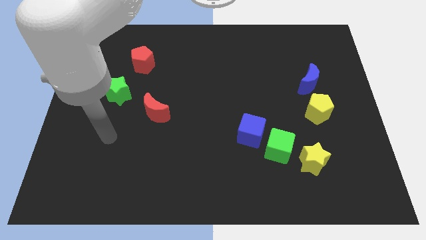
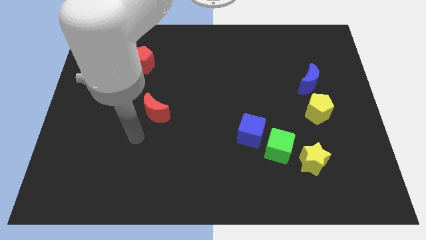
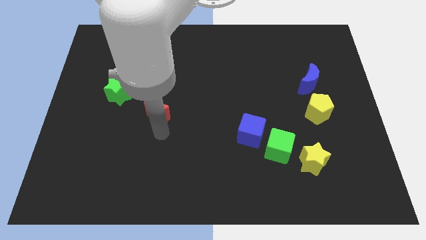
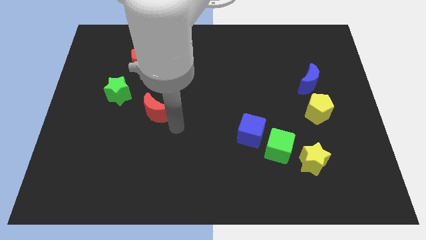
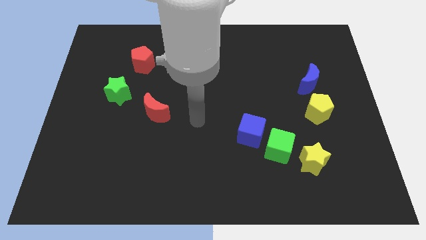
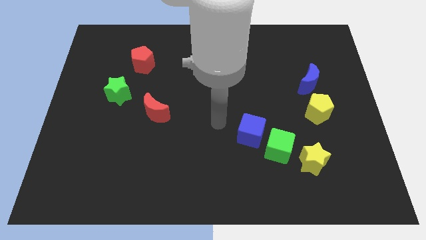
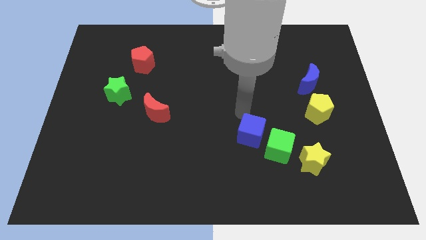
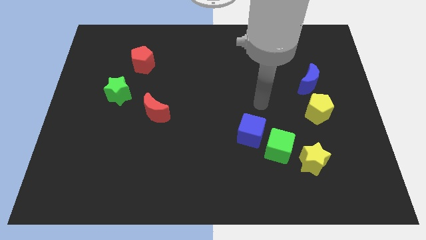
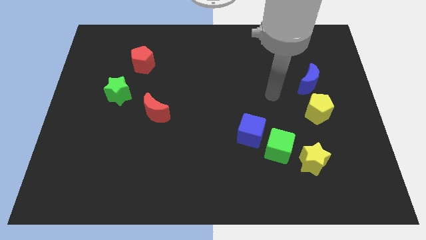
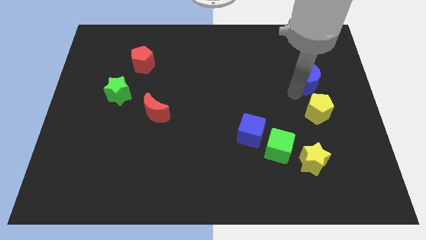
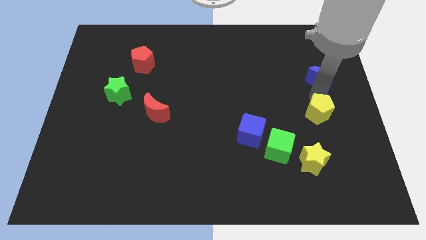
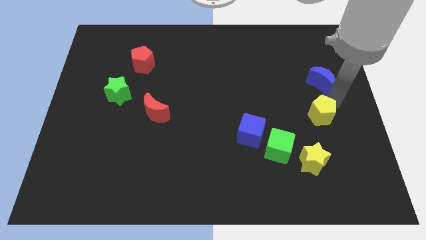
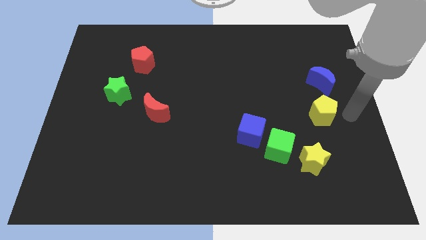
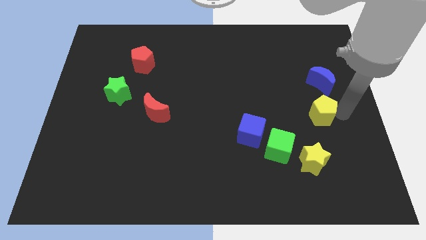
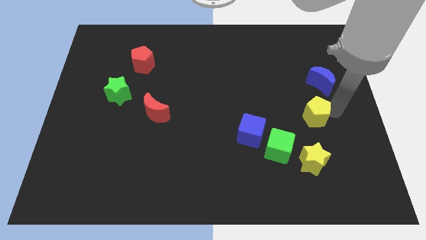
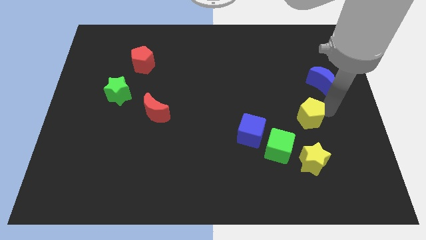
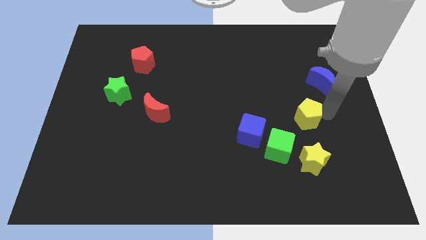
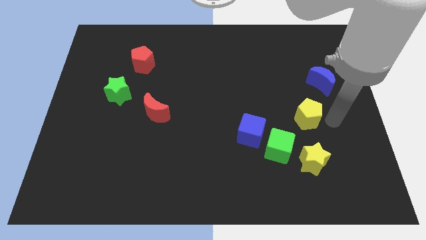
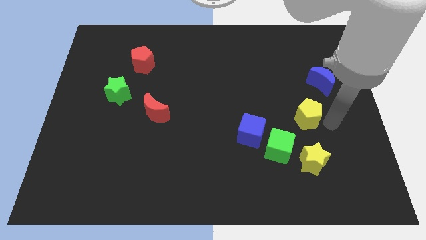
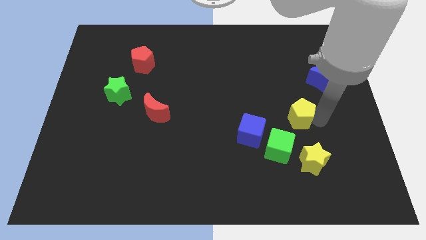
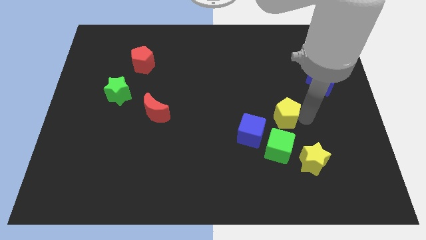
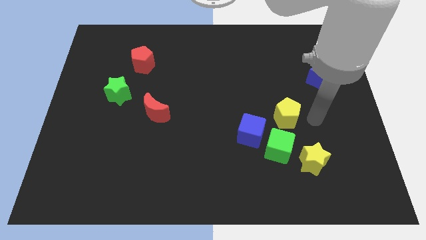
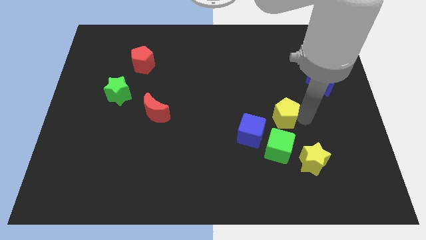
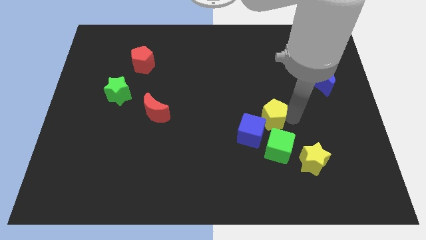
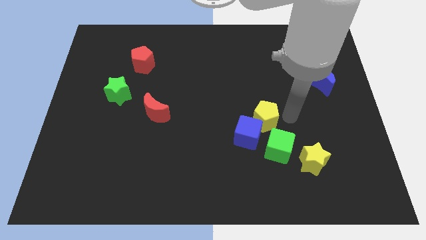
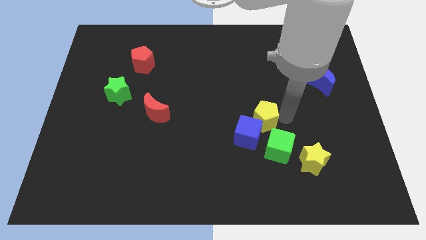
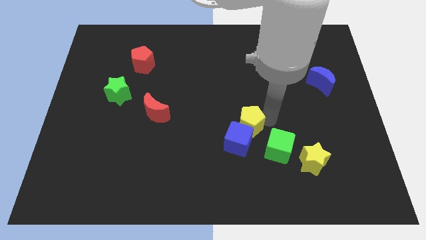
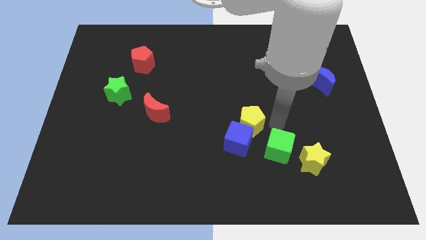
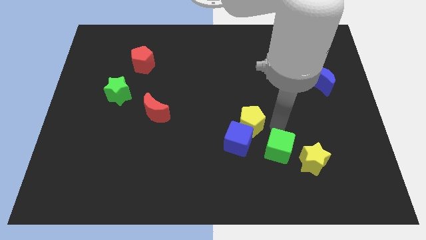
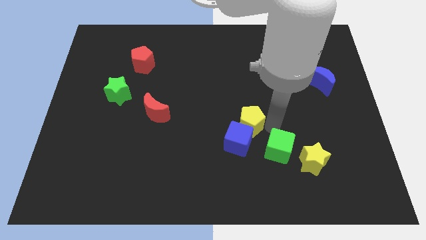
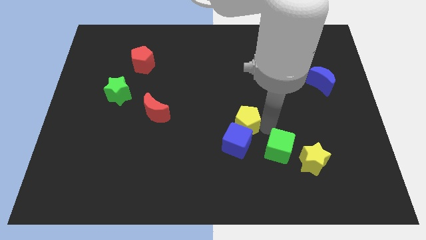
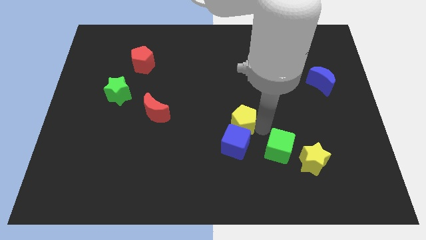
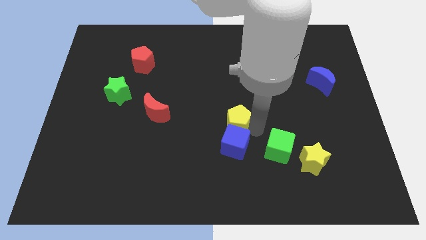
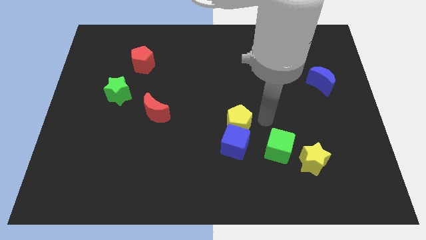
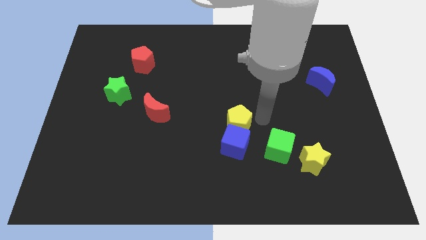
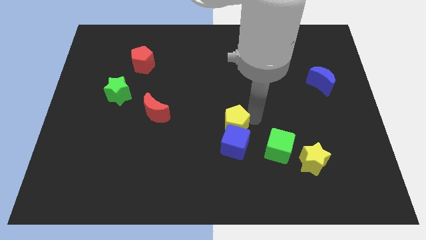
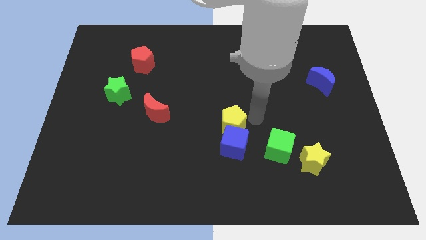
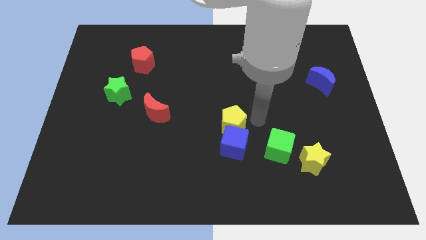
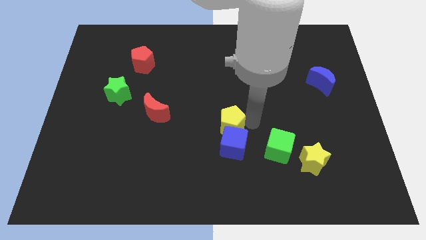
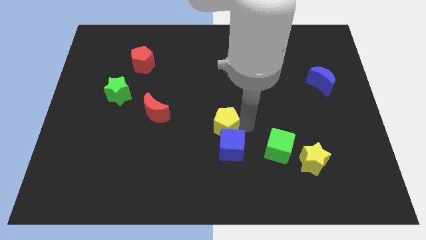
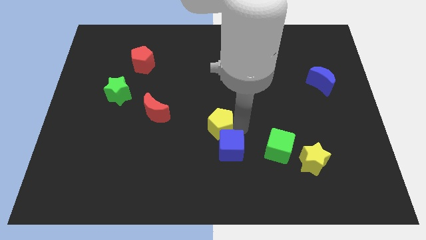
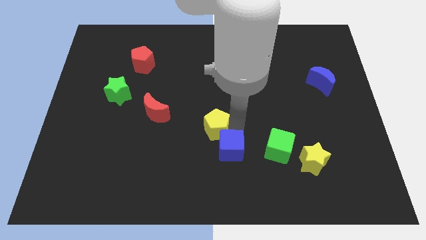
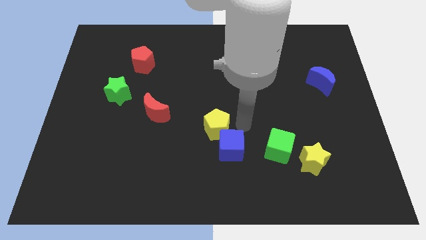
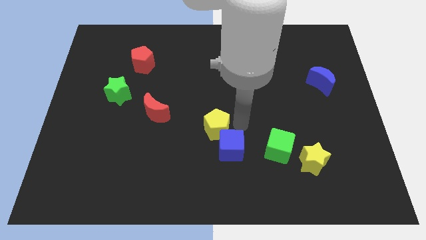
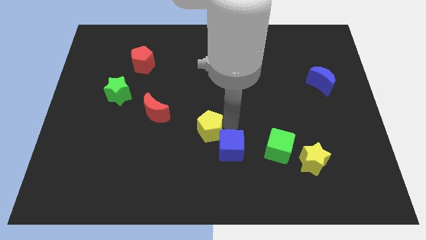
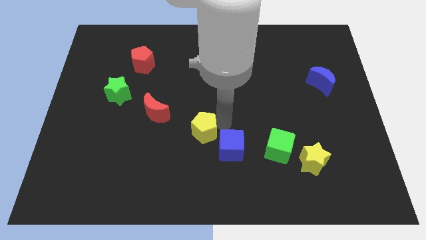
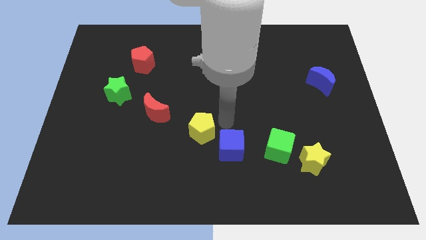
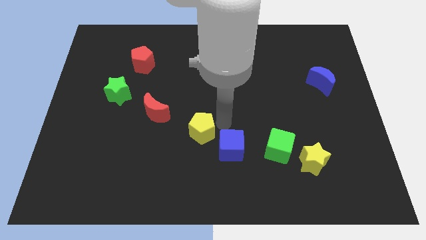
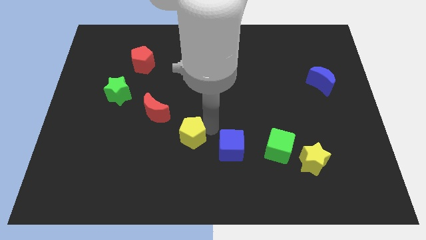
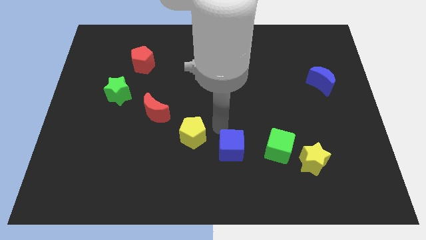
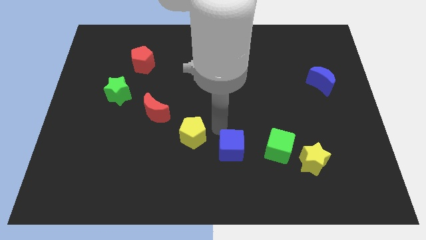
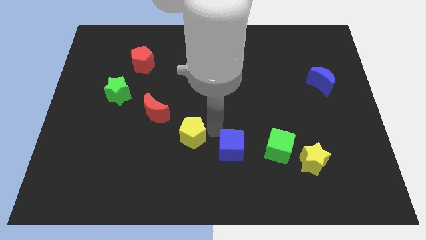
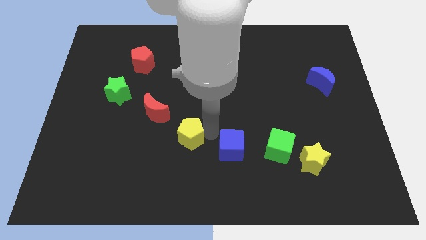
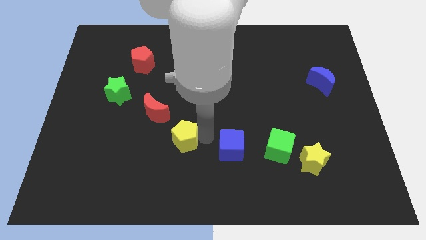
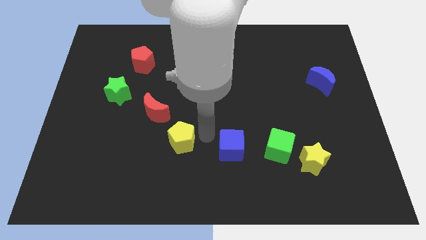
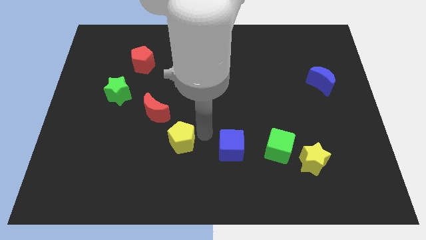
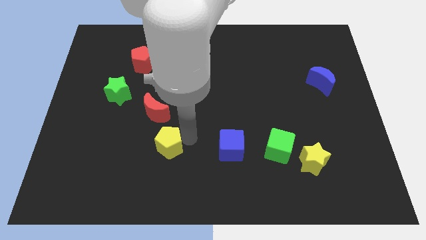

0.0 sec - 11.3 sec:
put the yellow pentagon to the bottom of the red moon

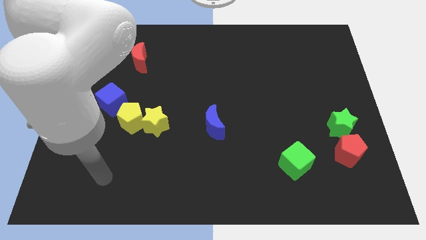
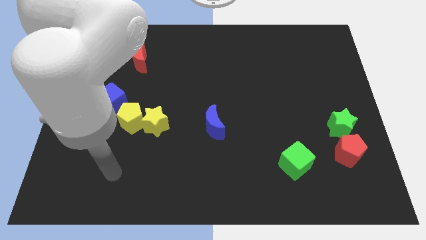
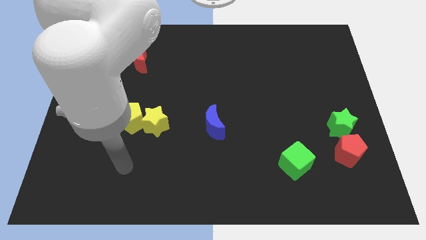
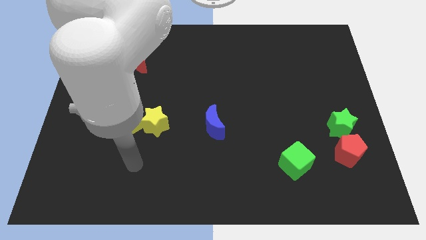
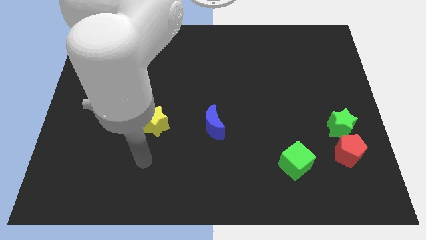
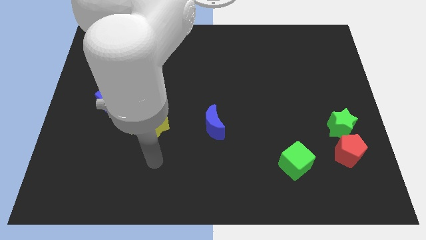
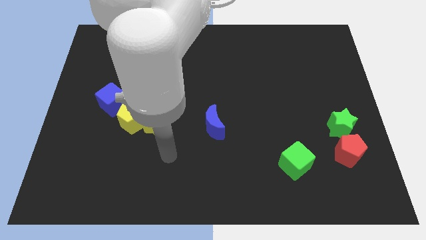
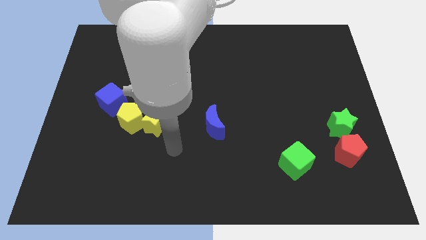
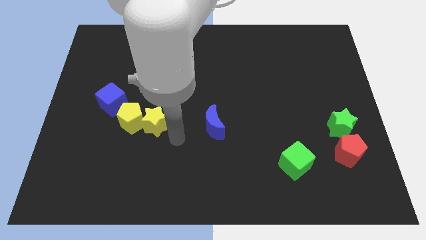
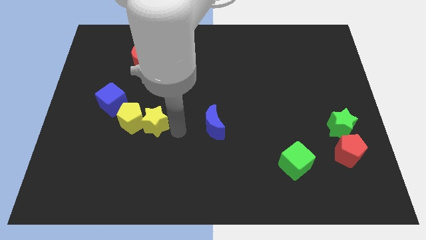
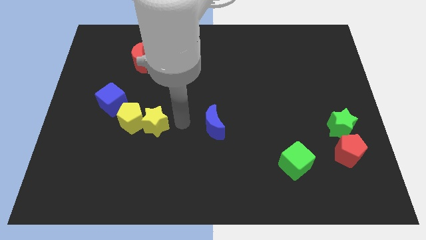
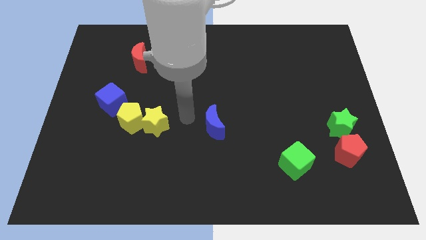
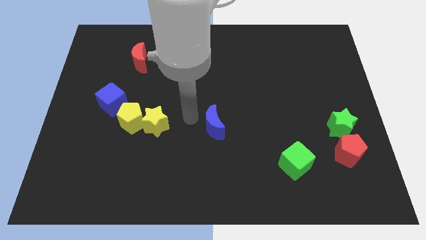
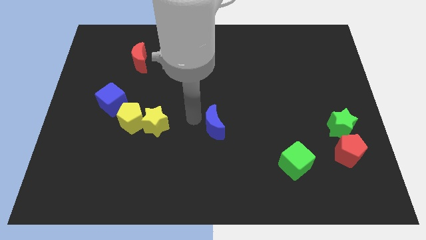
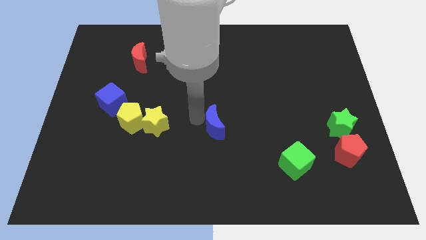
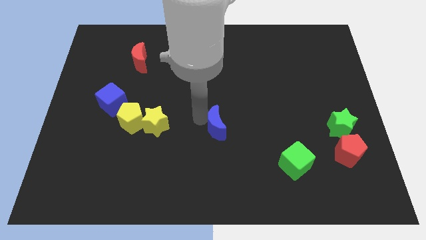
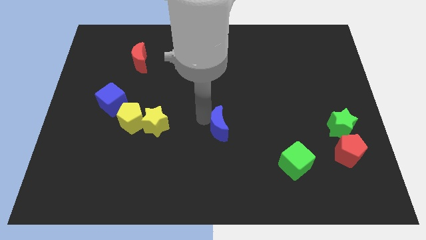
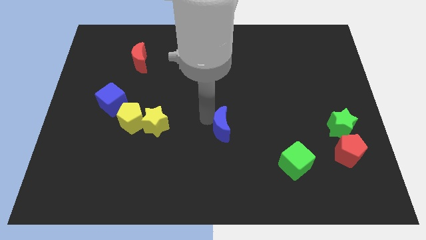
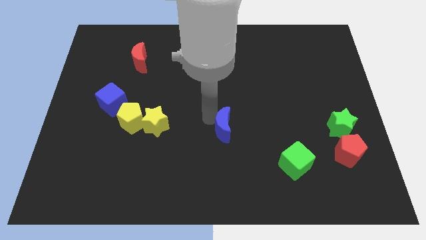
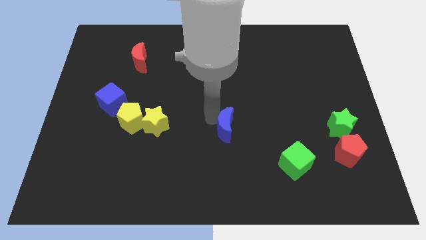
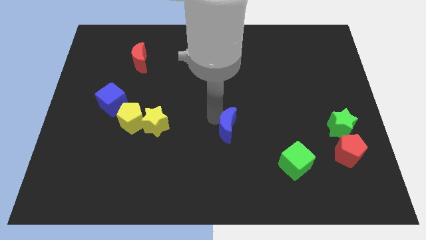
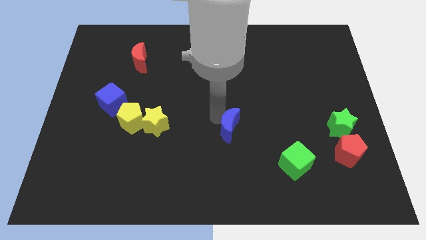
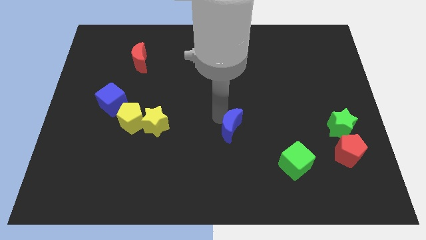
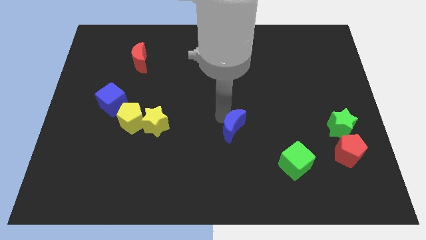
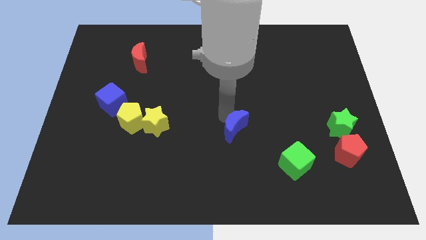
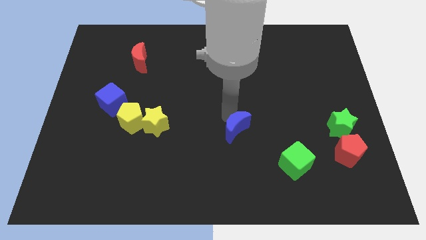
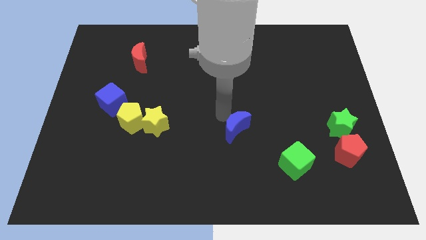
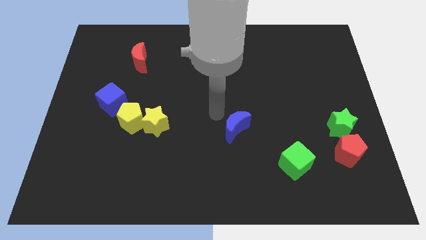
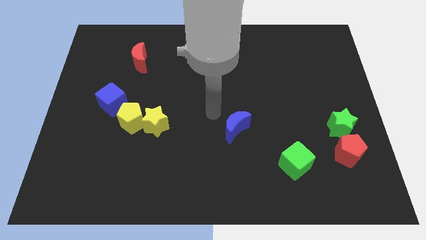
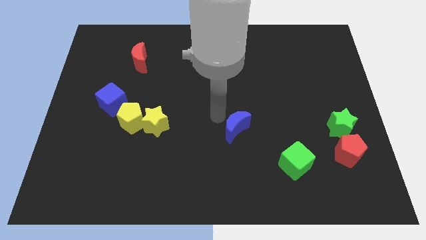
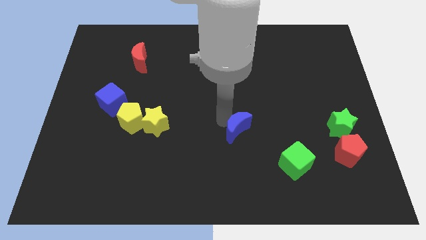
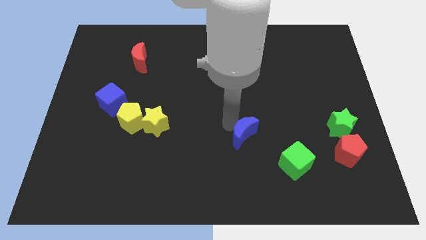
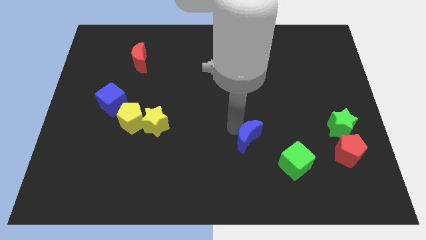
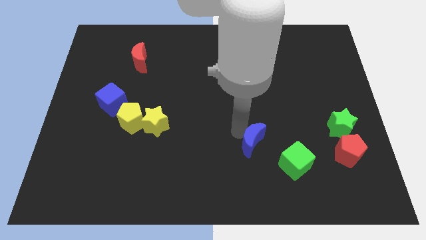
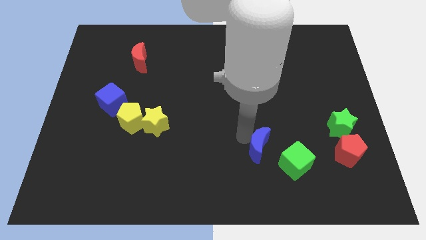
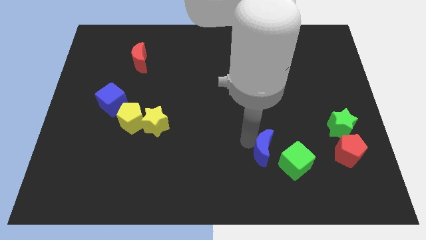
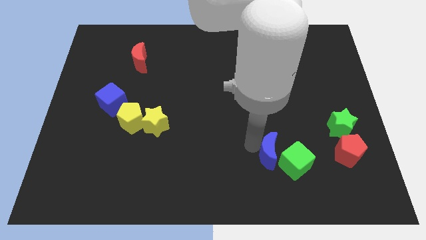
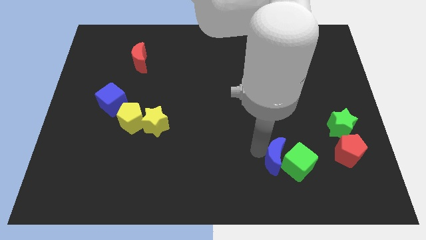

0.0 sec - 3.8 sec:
slide the blue moon to the left of the red pentagon
